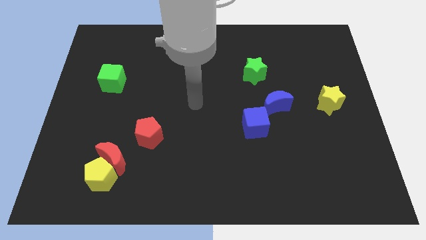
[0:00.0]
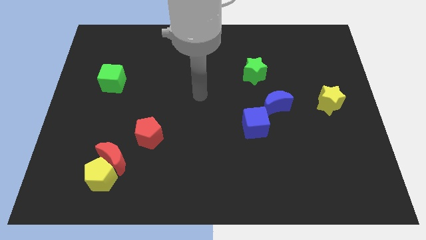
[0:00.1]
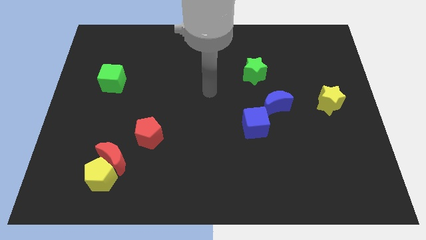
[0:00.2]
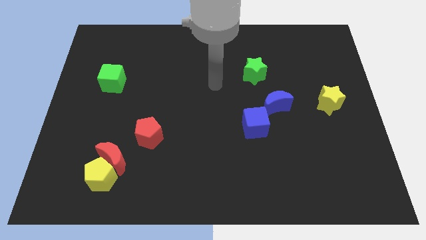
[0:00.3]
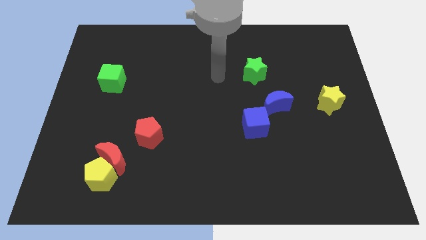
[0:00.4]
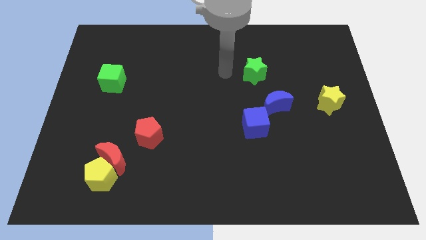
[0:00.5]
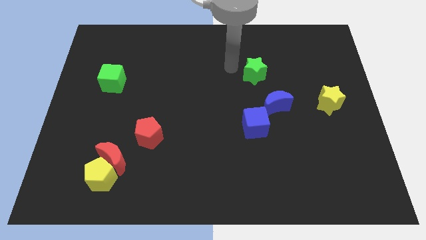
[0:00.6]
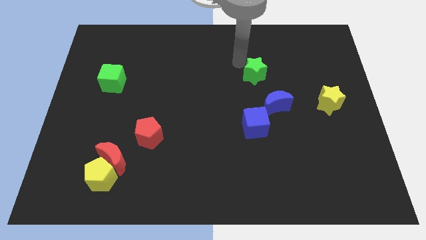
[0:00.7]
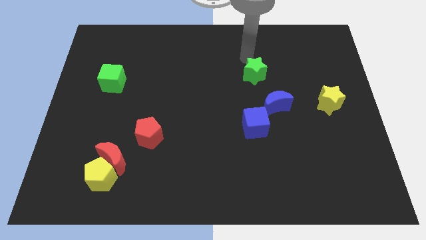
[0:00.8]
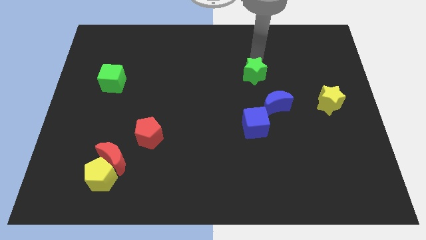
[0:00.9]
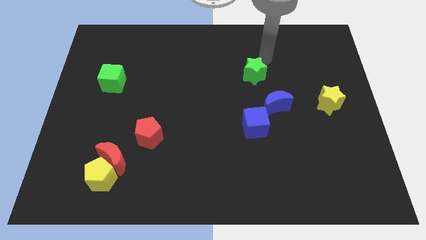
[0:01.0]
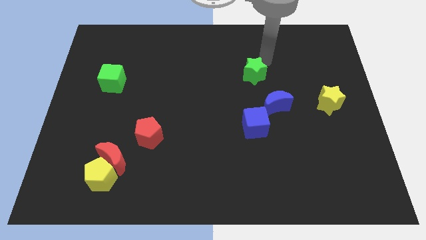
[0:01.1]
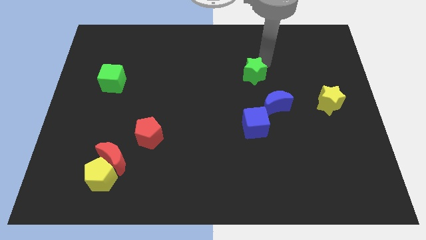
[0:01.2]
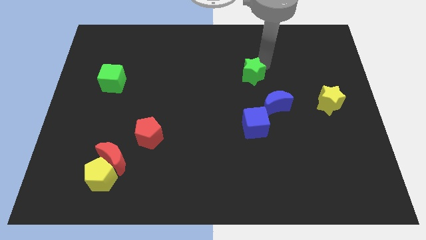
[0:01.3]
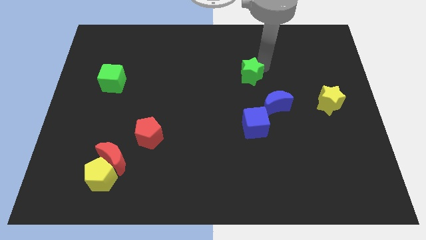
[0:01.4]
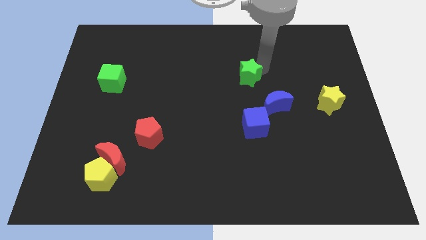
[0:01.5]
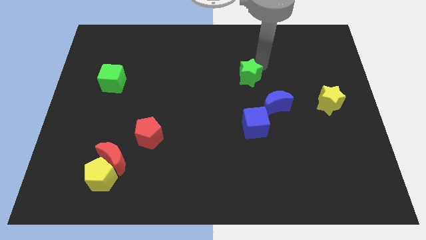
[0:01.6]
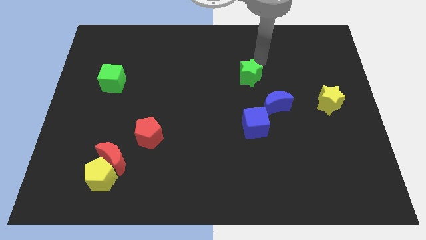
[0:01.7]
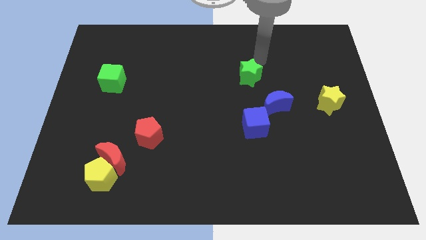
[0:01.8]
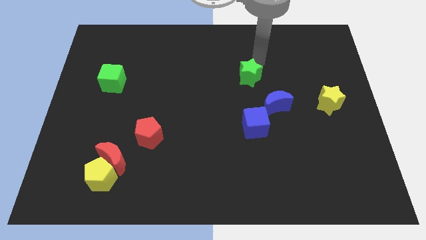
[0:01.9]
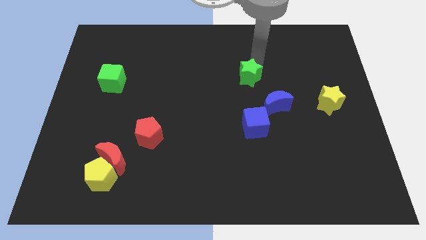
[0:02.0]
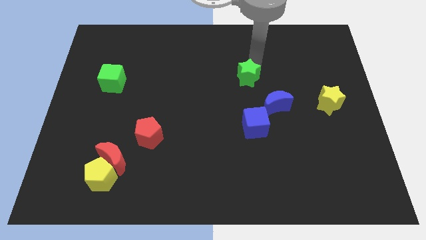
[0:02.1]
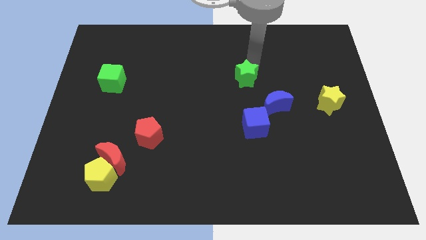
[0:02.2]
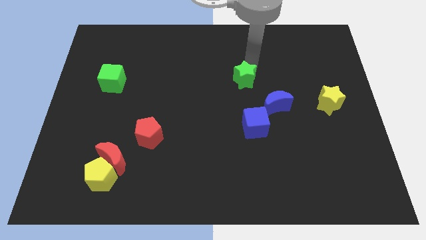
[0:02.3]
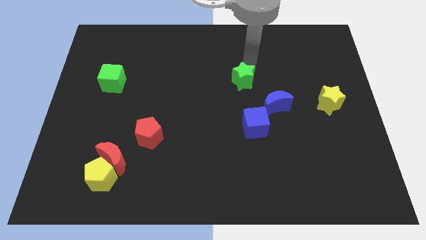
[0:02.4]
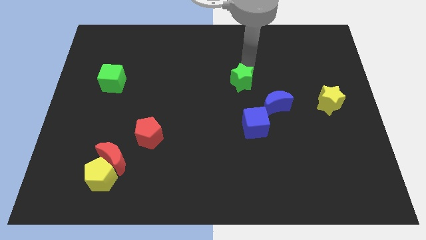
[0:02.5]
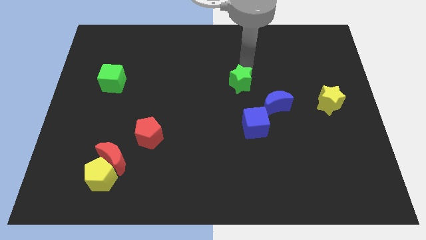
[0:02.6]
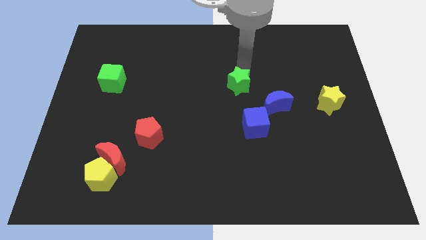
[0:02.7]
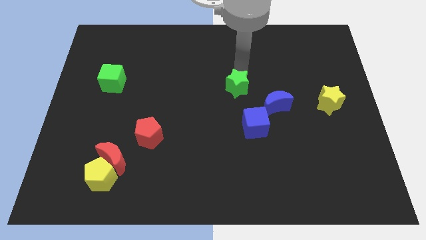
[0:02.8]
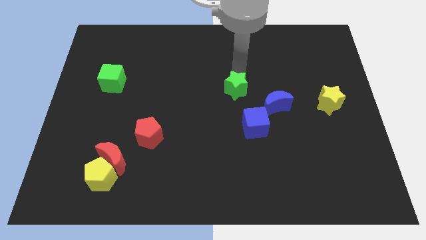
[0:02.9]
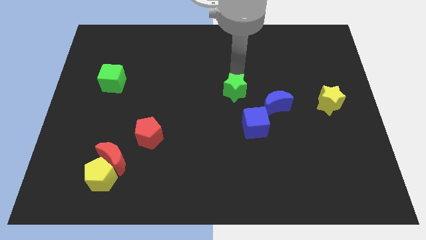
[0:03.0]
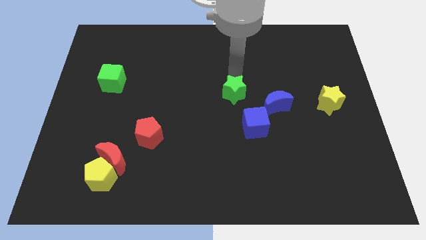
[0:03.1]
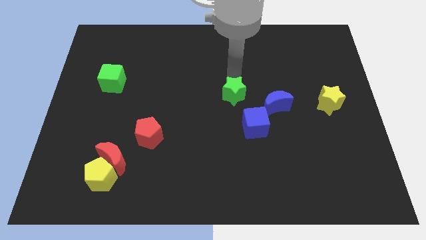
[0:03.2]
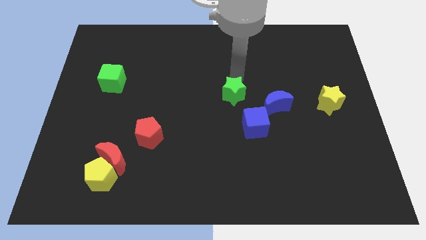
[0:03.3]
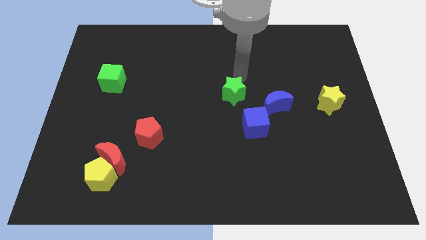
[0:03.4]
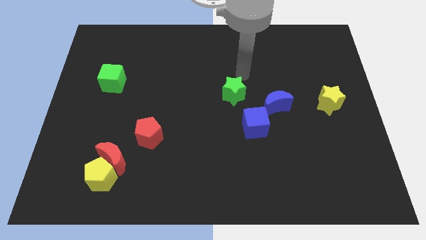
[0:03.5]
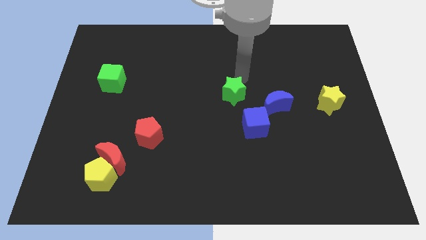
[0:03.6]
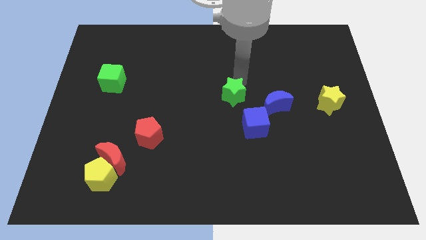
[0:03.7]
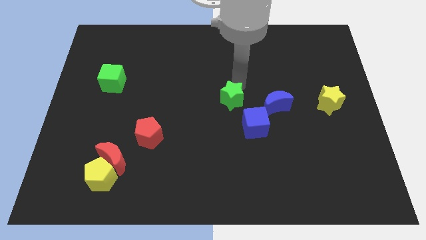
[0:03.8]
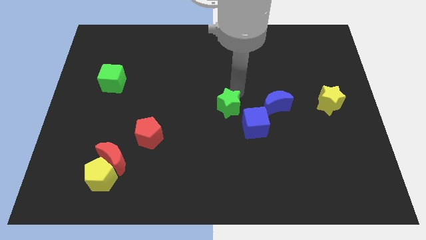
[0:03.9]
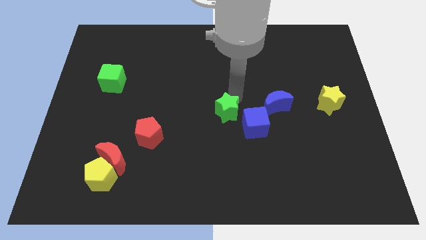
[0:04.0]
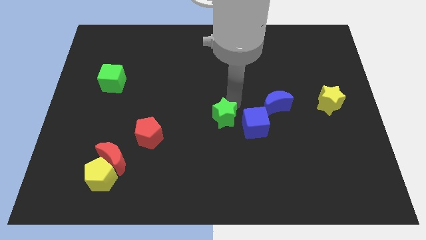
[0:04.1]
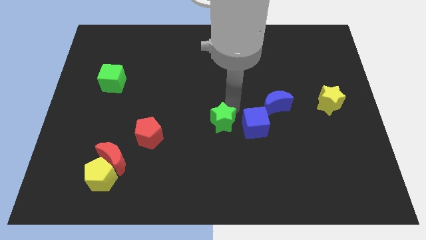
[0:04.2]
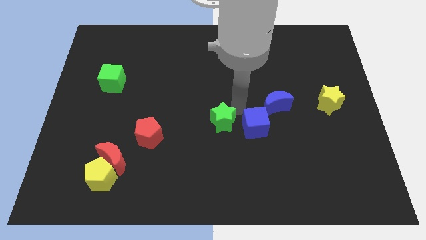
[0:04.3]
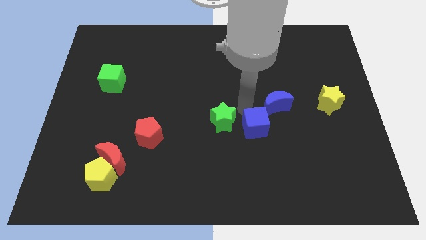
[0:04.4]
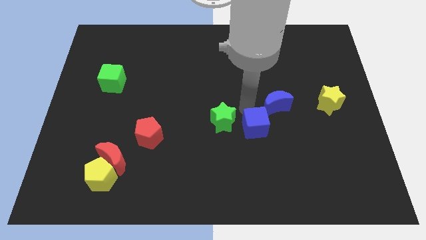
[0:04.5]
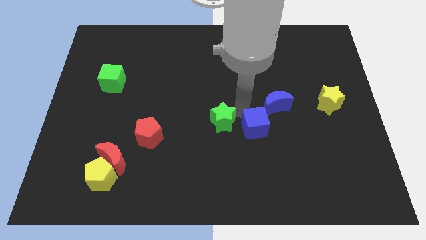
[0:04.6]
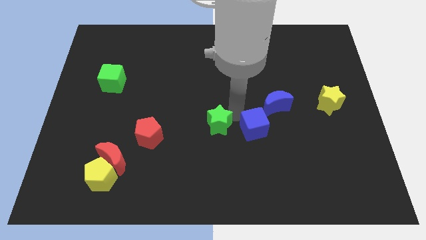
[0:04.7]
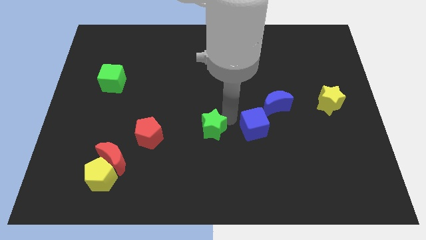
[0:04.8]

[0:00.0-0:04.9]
push the green star to the right side of the red pentagon

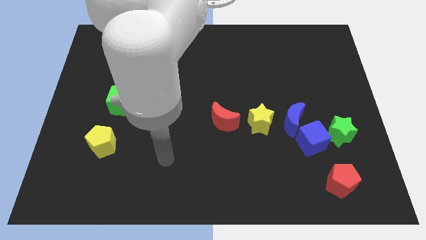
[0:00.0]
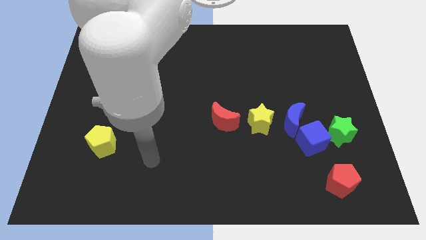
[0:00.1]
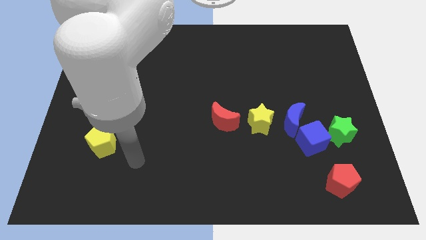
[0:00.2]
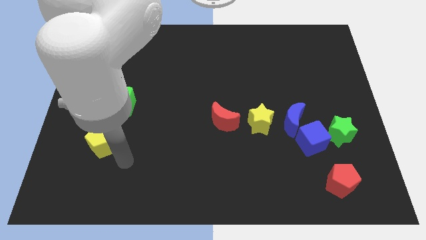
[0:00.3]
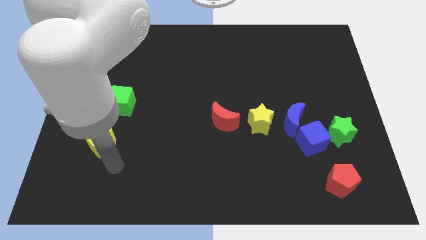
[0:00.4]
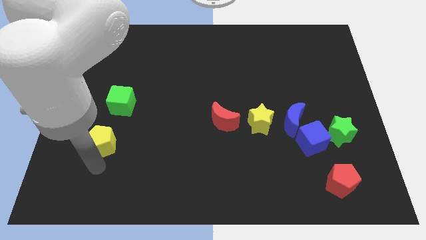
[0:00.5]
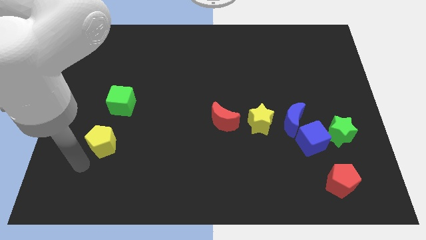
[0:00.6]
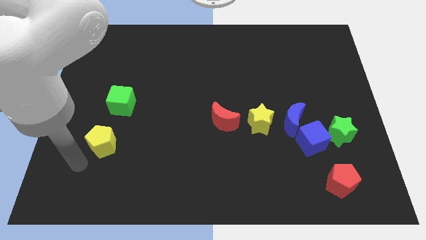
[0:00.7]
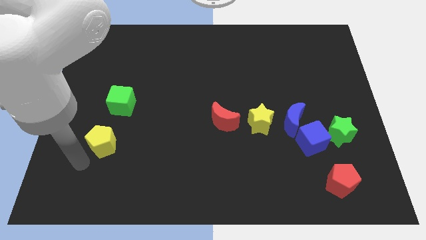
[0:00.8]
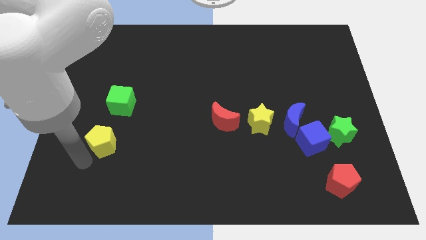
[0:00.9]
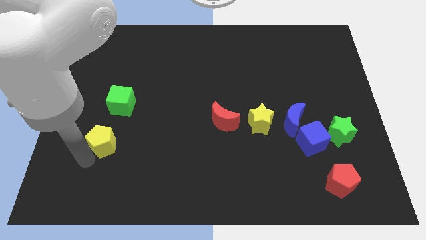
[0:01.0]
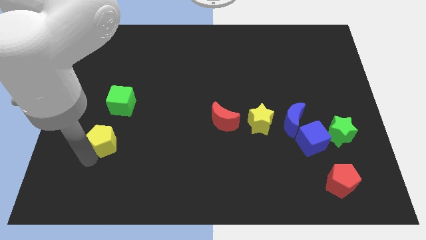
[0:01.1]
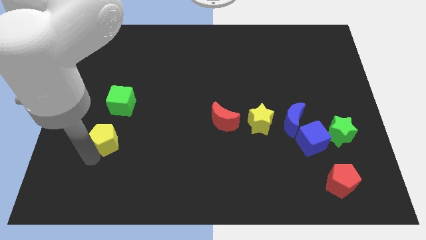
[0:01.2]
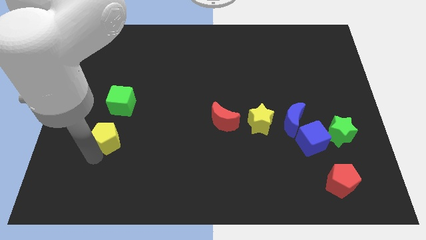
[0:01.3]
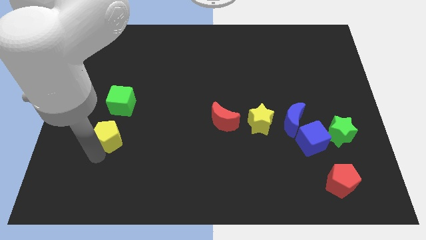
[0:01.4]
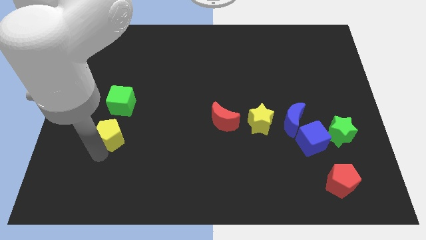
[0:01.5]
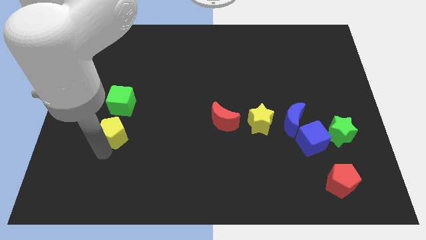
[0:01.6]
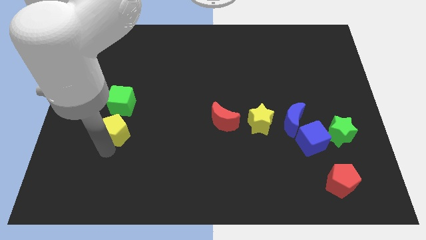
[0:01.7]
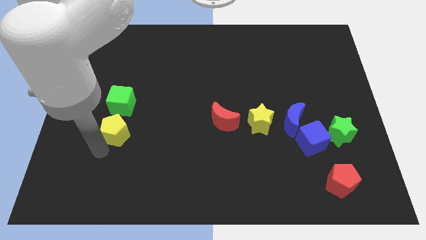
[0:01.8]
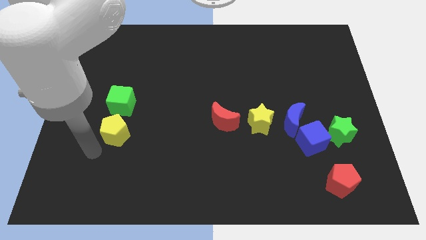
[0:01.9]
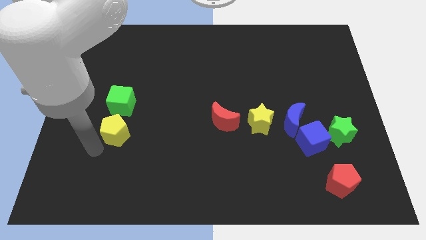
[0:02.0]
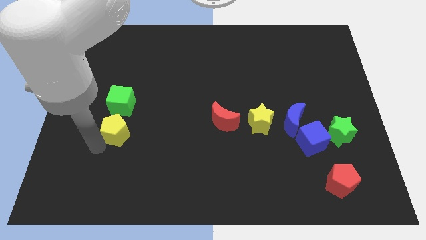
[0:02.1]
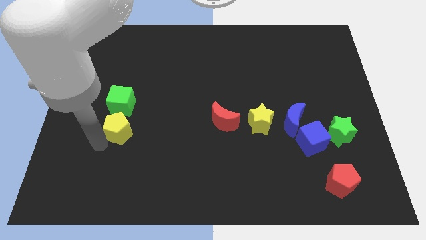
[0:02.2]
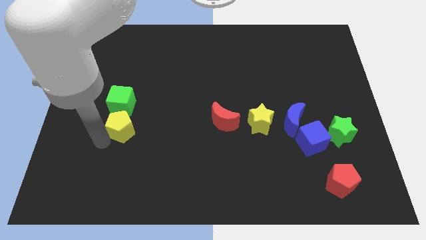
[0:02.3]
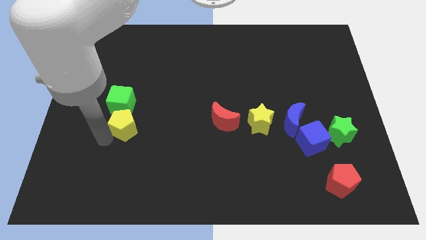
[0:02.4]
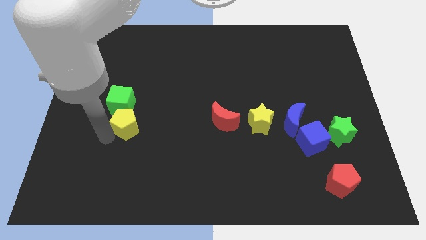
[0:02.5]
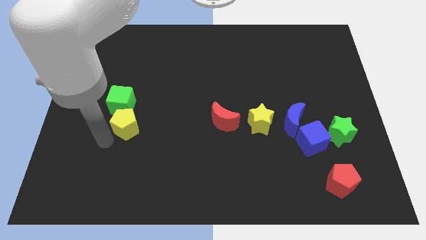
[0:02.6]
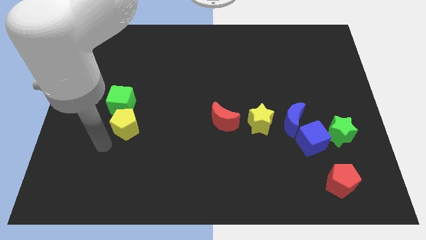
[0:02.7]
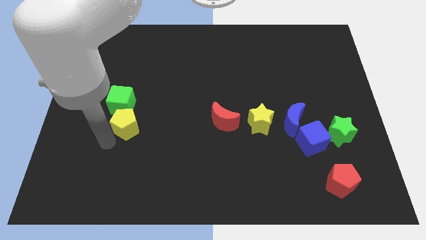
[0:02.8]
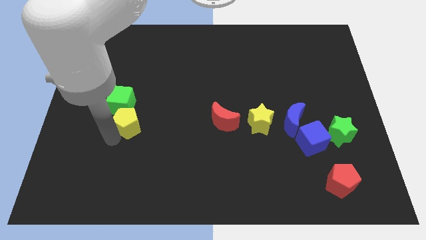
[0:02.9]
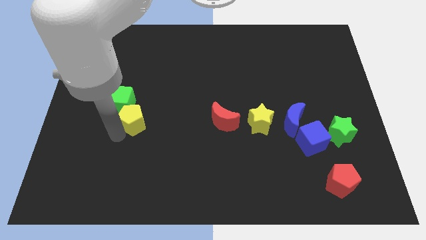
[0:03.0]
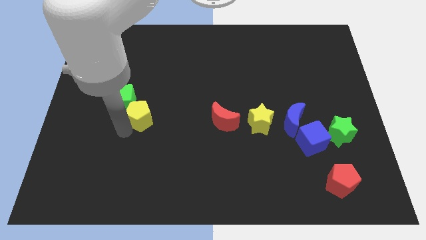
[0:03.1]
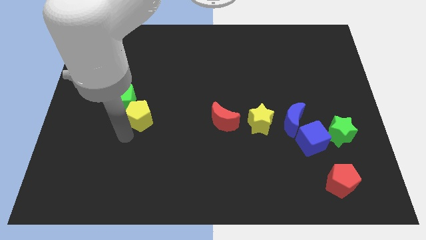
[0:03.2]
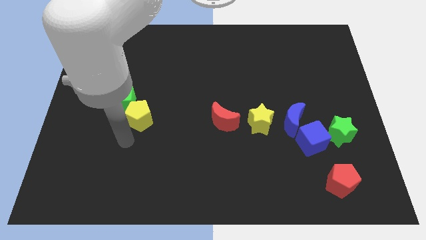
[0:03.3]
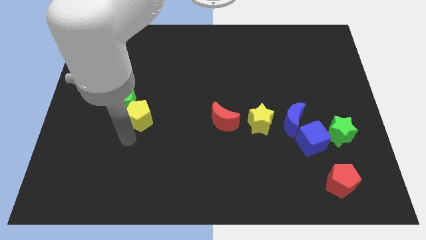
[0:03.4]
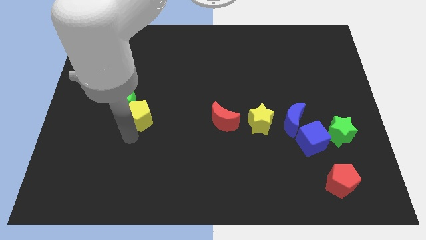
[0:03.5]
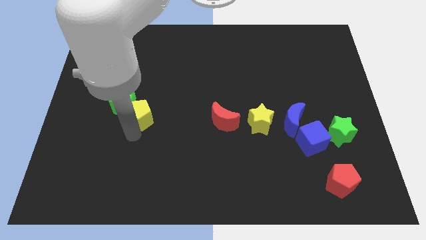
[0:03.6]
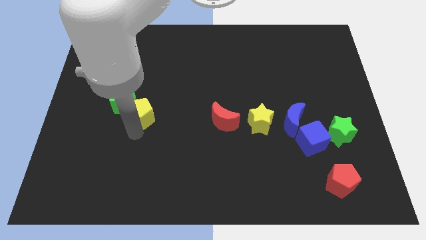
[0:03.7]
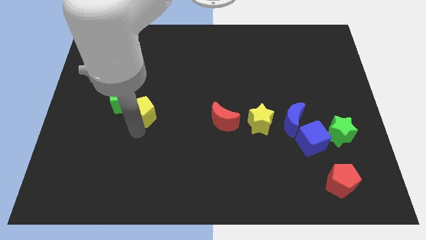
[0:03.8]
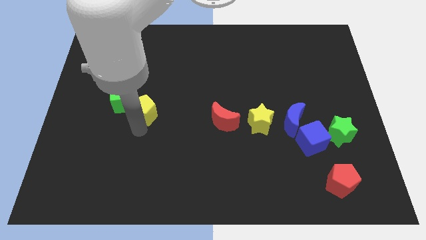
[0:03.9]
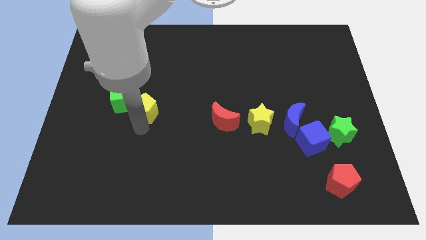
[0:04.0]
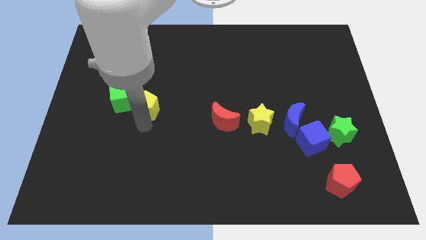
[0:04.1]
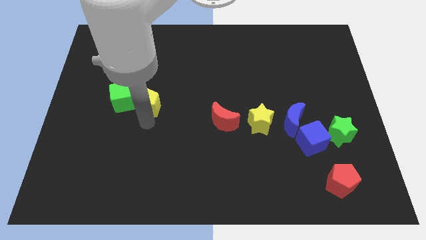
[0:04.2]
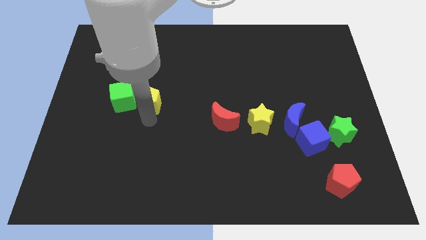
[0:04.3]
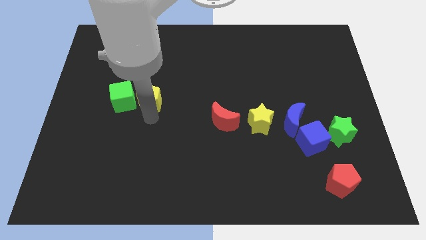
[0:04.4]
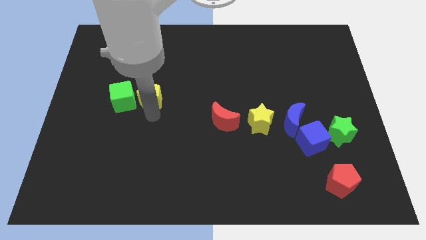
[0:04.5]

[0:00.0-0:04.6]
slide the yellow pentagon diagonally up and to the right of the green cube
